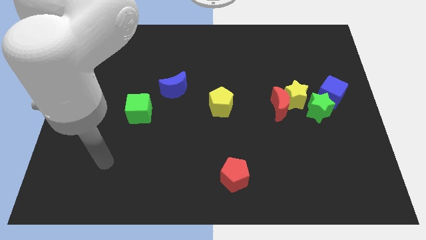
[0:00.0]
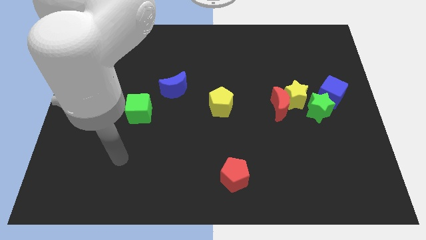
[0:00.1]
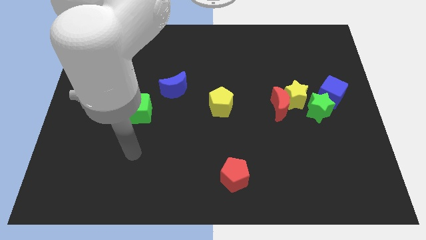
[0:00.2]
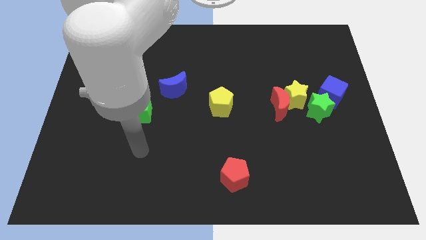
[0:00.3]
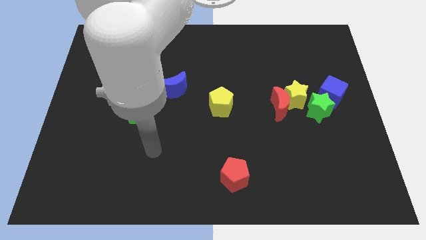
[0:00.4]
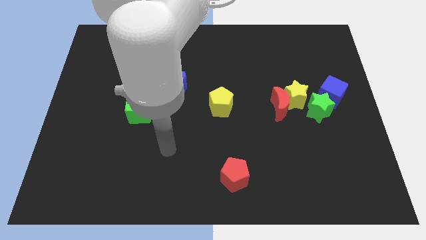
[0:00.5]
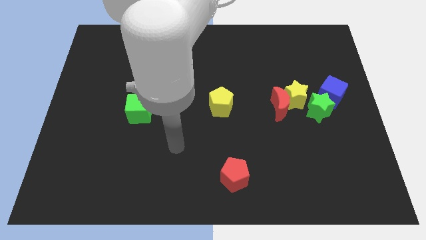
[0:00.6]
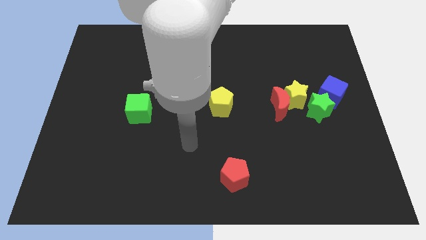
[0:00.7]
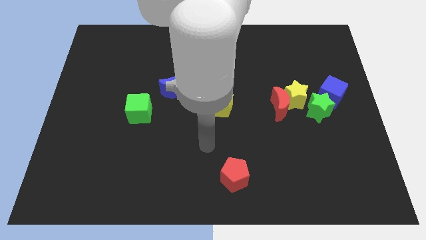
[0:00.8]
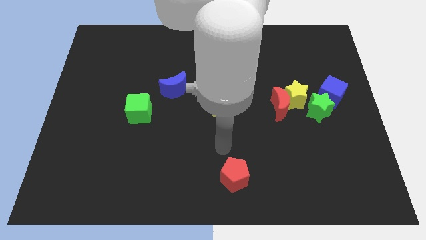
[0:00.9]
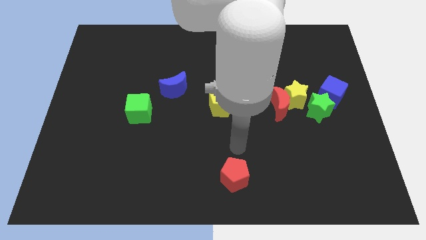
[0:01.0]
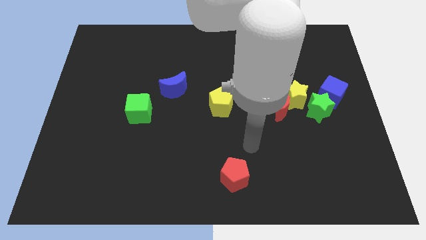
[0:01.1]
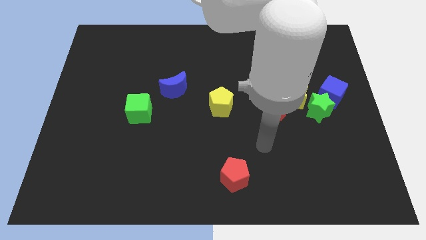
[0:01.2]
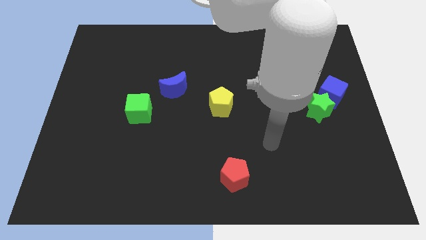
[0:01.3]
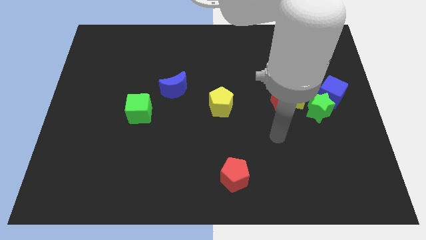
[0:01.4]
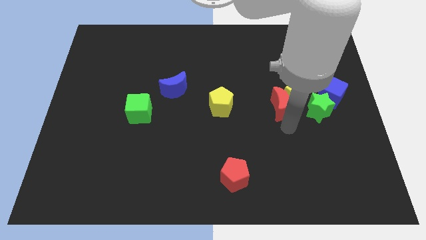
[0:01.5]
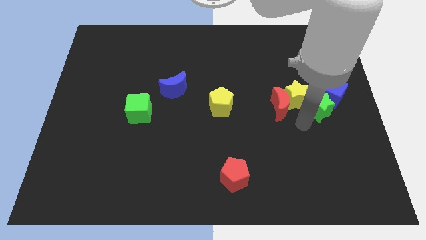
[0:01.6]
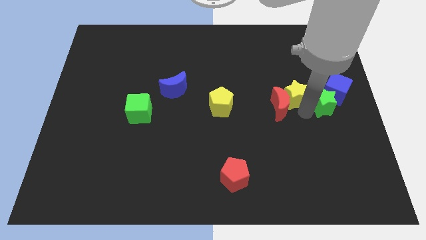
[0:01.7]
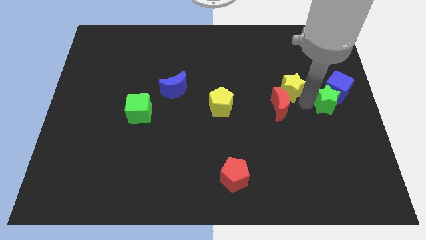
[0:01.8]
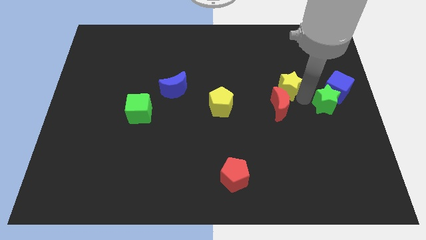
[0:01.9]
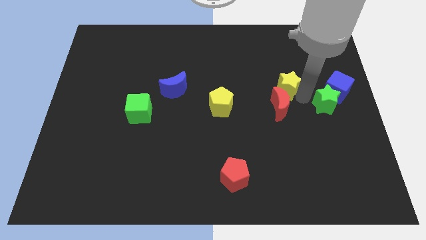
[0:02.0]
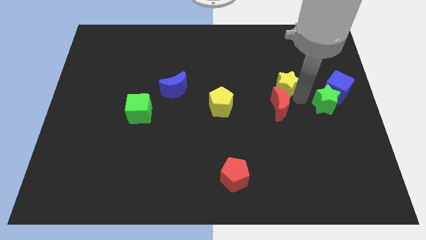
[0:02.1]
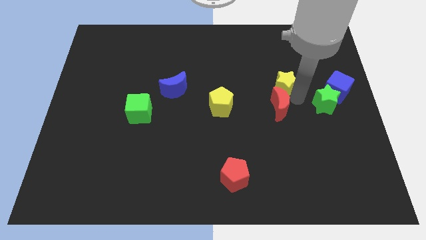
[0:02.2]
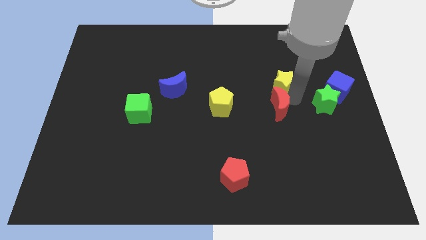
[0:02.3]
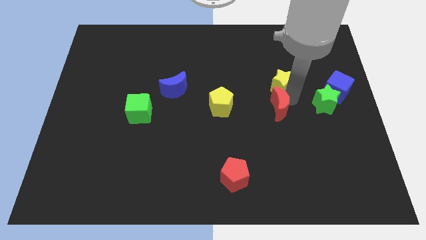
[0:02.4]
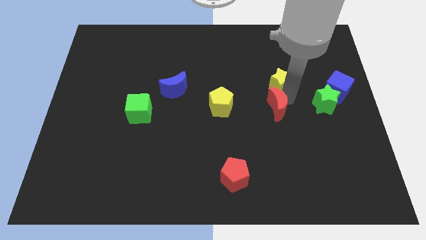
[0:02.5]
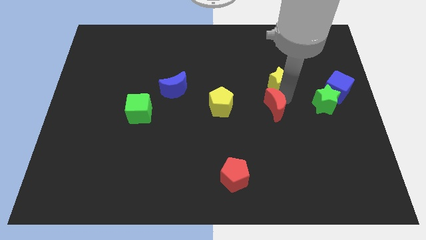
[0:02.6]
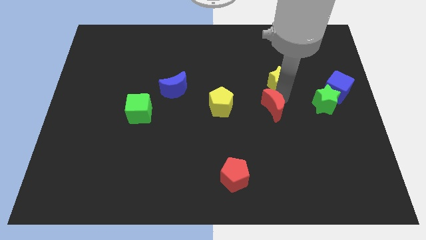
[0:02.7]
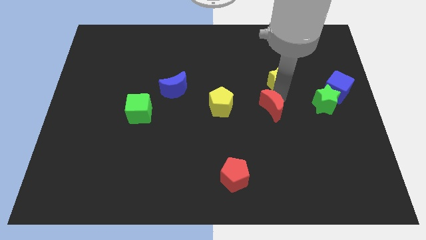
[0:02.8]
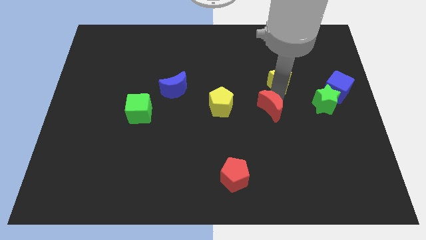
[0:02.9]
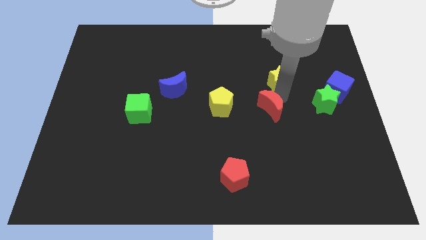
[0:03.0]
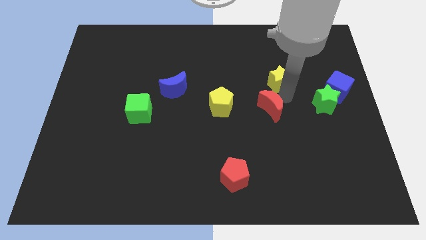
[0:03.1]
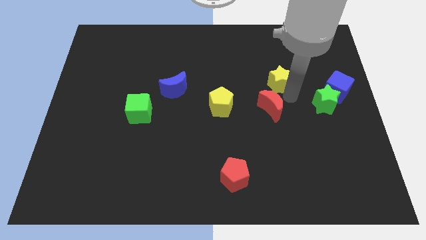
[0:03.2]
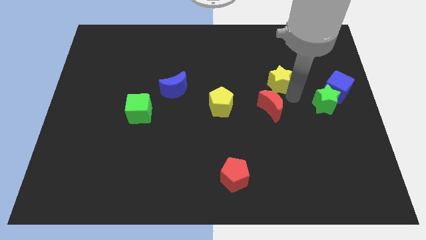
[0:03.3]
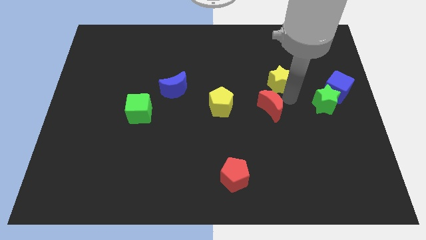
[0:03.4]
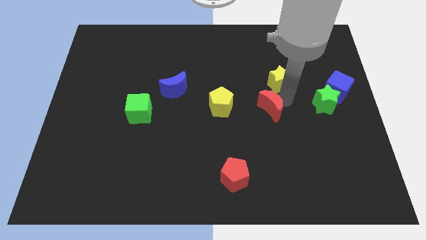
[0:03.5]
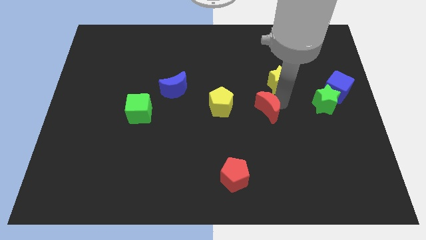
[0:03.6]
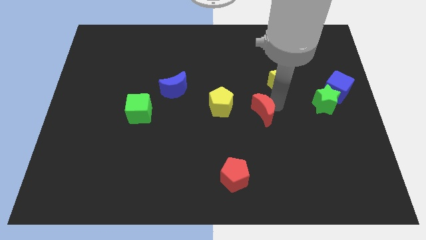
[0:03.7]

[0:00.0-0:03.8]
separate the red moon from the yellow star and green star

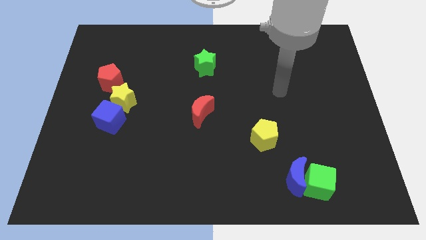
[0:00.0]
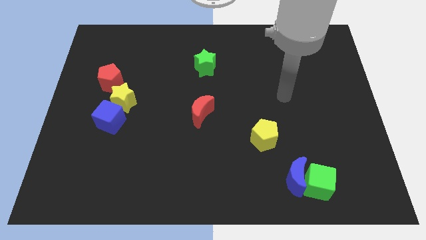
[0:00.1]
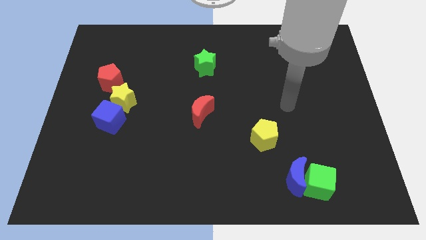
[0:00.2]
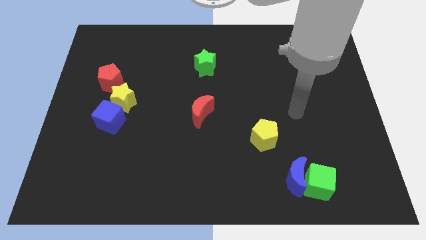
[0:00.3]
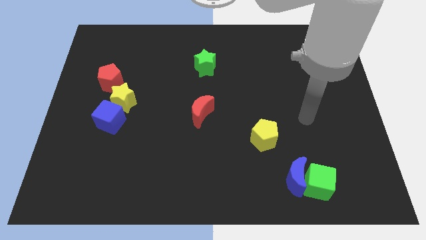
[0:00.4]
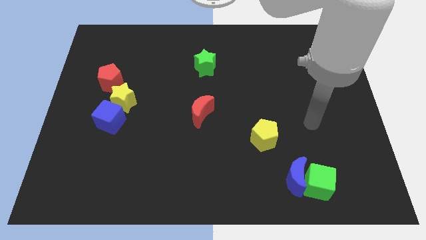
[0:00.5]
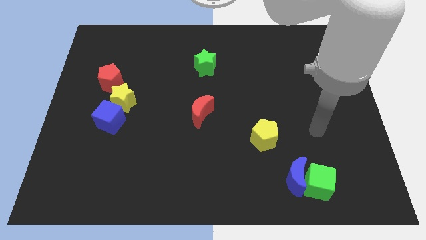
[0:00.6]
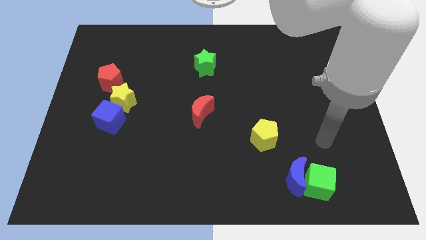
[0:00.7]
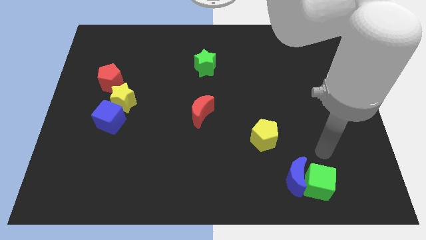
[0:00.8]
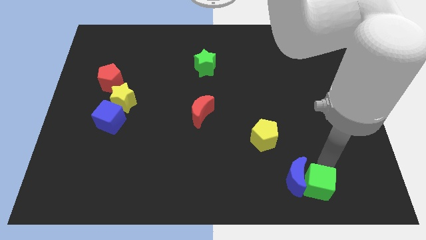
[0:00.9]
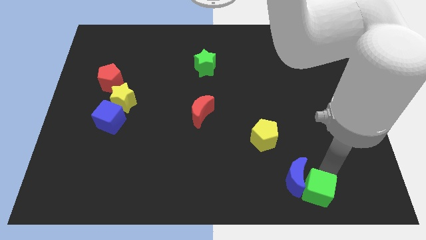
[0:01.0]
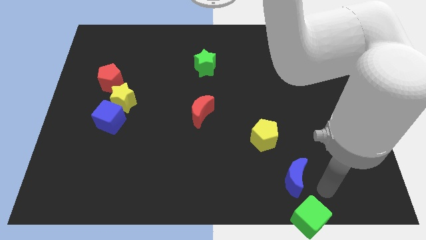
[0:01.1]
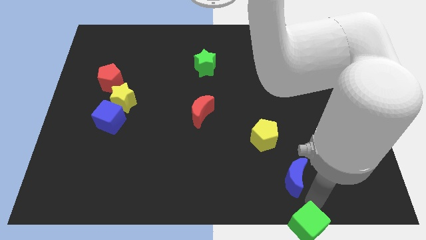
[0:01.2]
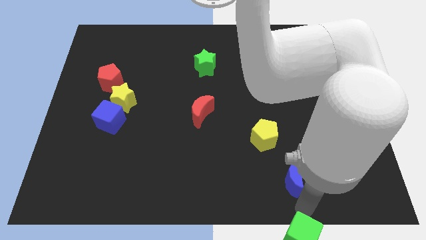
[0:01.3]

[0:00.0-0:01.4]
separate the blue moon from the green cube

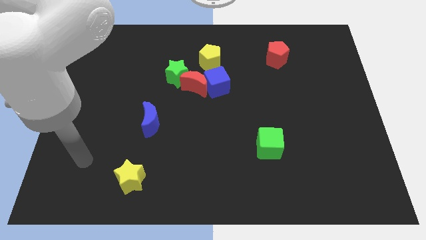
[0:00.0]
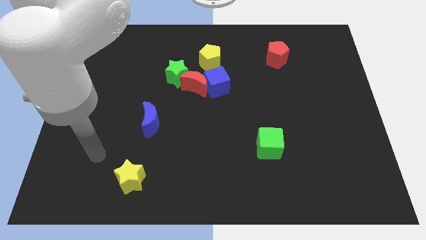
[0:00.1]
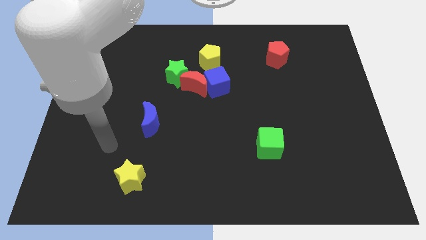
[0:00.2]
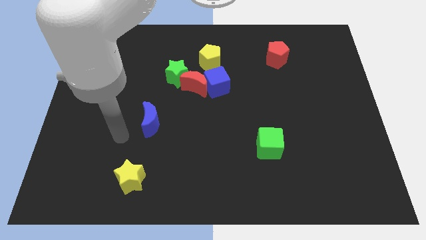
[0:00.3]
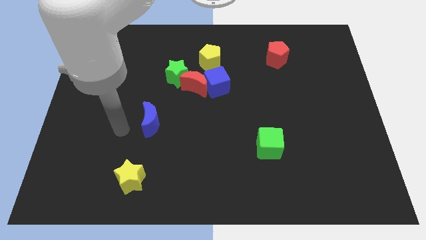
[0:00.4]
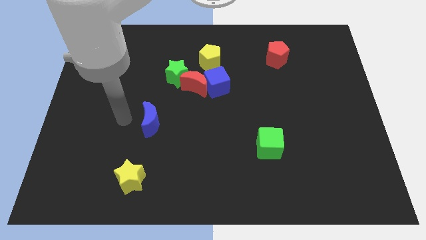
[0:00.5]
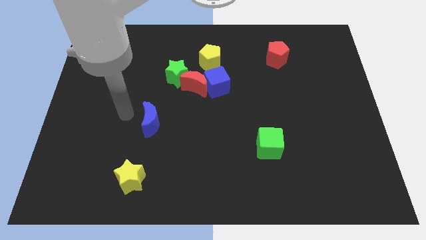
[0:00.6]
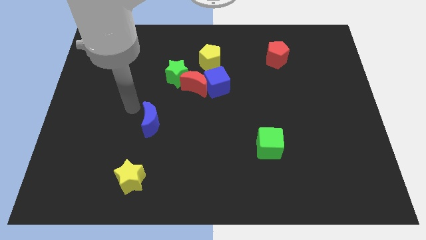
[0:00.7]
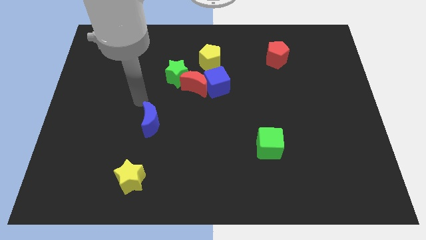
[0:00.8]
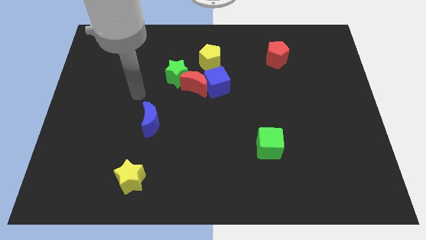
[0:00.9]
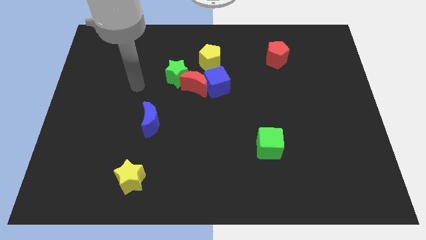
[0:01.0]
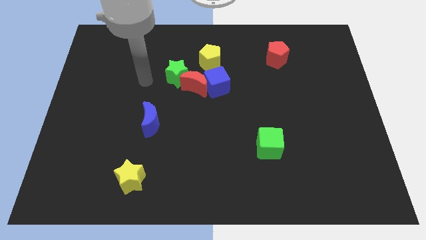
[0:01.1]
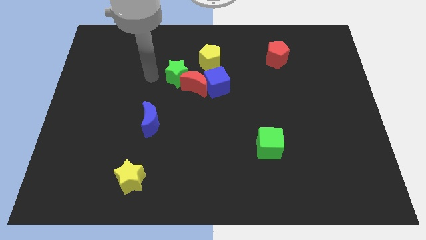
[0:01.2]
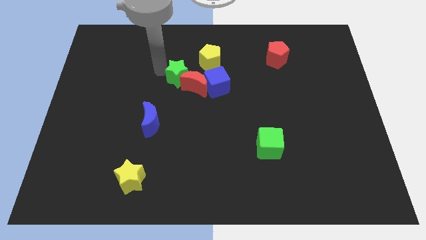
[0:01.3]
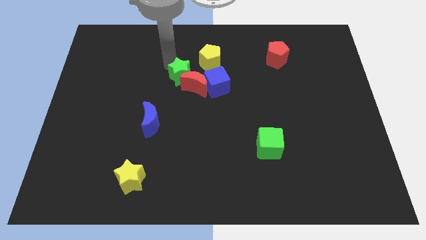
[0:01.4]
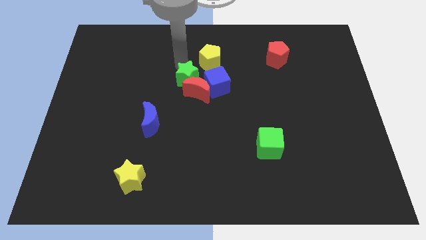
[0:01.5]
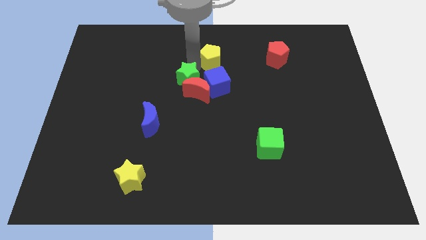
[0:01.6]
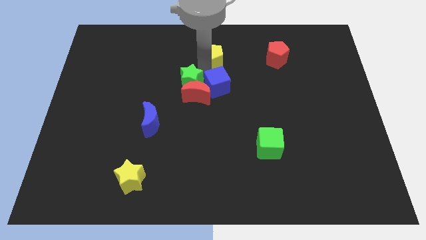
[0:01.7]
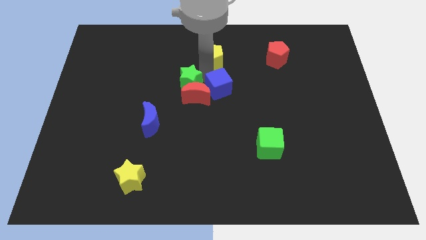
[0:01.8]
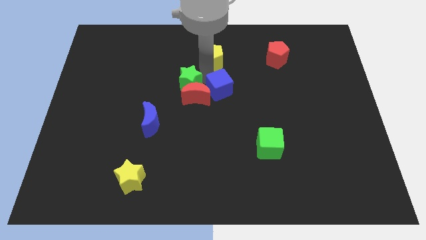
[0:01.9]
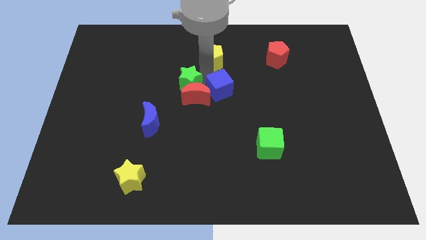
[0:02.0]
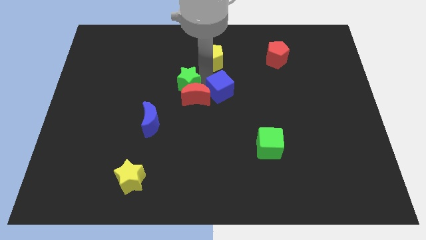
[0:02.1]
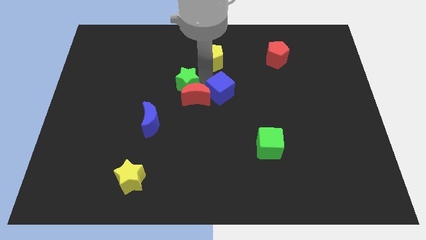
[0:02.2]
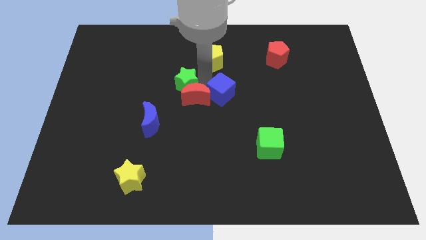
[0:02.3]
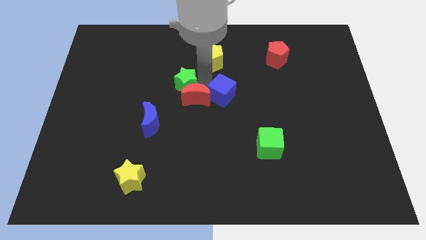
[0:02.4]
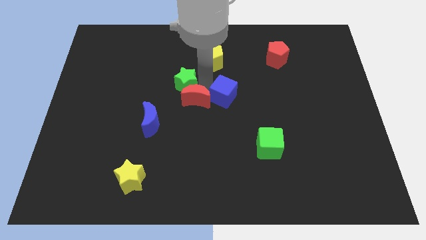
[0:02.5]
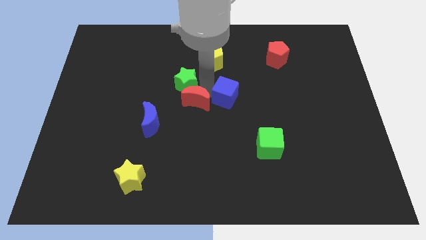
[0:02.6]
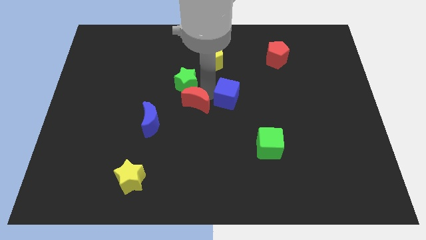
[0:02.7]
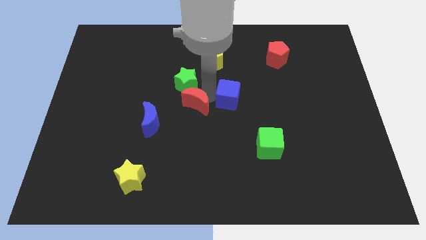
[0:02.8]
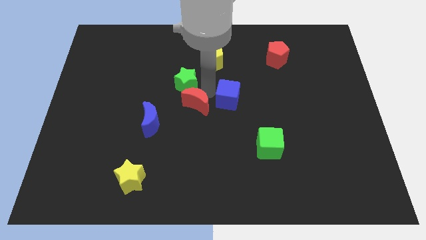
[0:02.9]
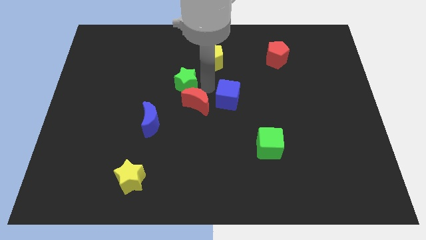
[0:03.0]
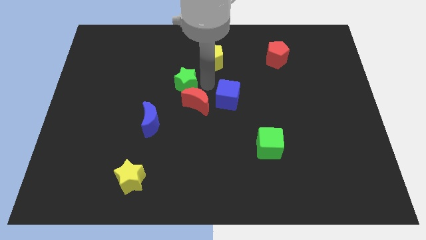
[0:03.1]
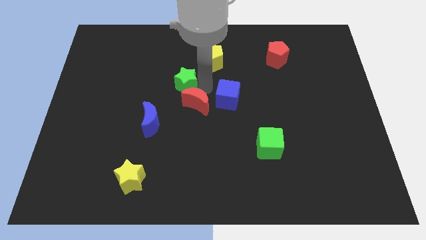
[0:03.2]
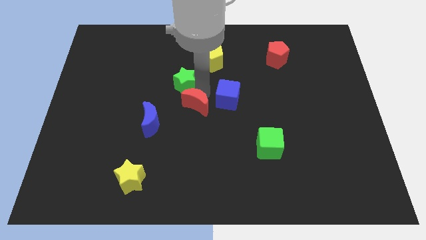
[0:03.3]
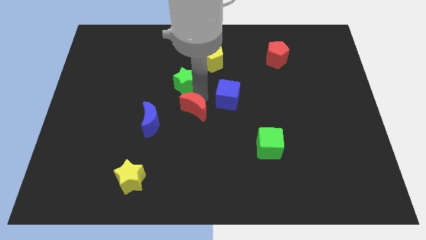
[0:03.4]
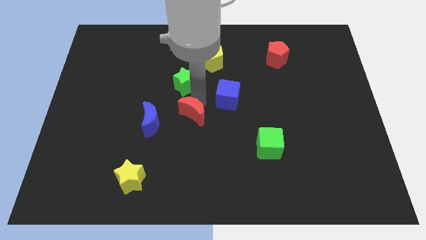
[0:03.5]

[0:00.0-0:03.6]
move the red moon away from the blue cube, green star, and yellow pentagon

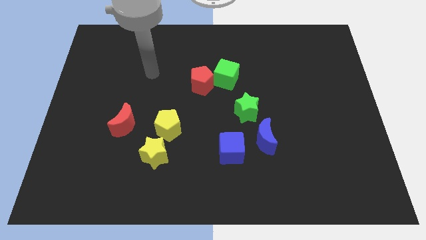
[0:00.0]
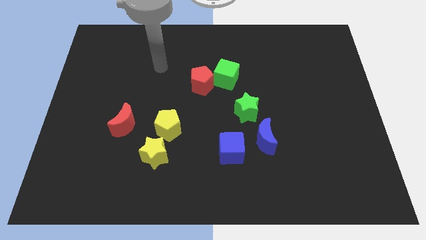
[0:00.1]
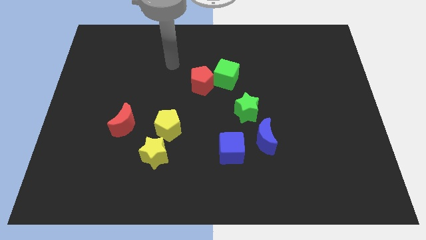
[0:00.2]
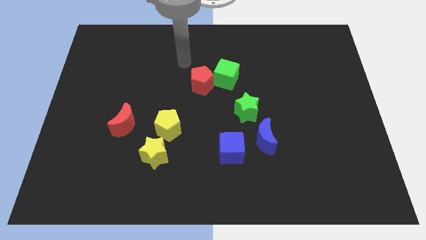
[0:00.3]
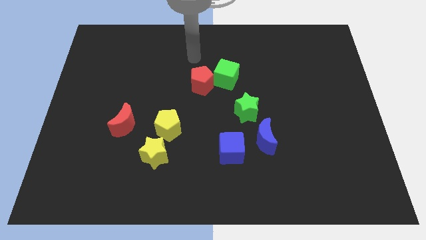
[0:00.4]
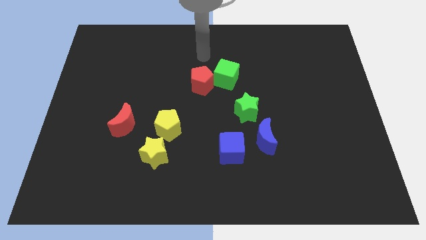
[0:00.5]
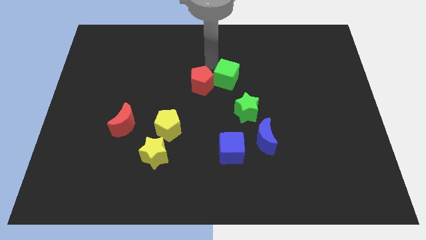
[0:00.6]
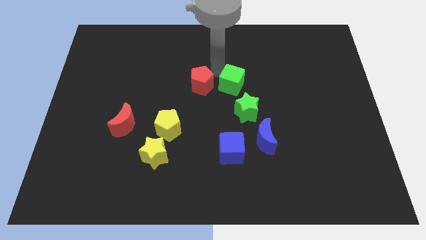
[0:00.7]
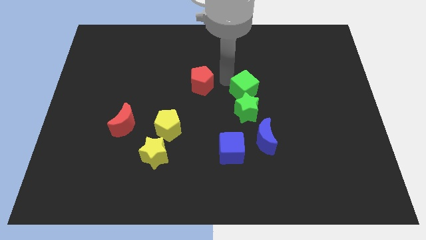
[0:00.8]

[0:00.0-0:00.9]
separate the red pentagon from the green cube
